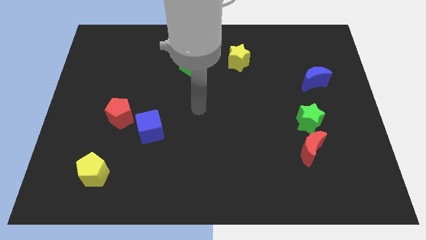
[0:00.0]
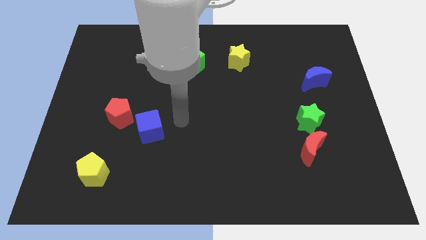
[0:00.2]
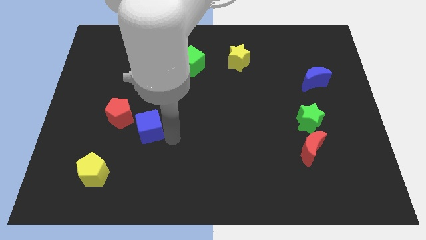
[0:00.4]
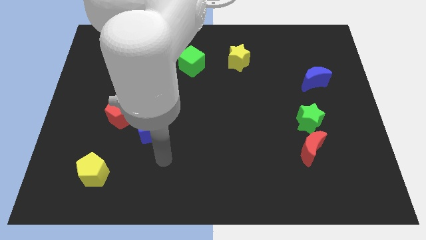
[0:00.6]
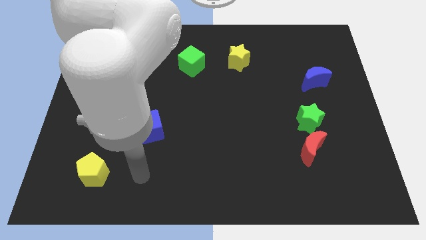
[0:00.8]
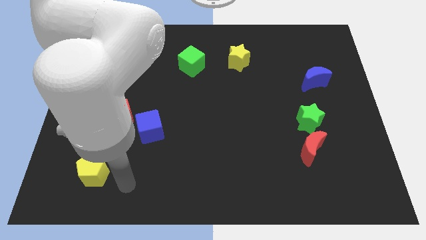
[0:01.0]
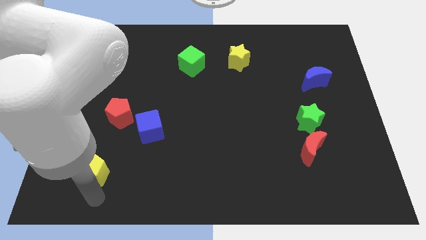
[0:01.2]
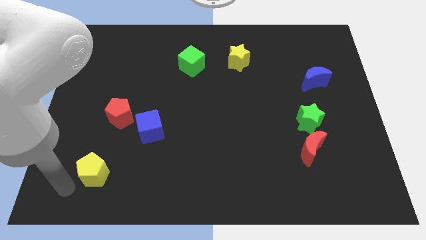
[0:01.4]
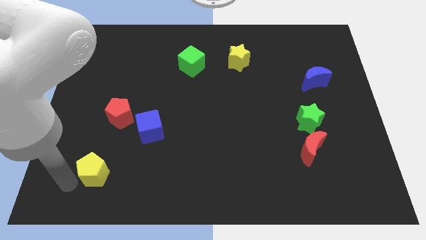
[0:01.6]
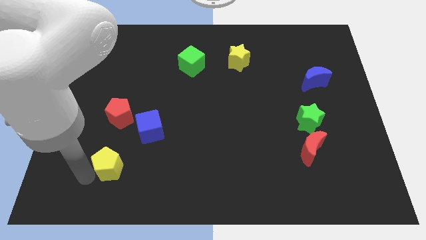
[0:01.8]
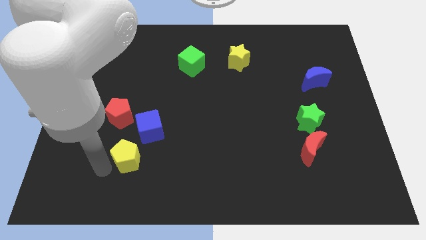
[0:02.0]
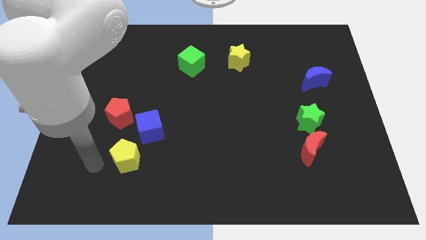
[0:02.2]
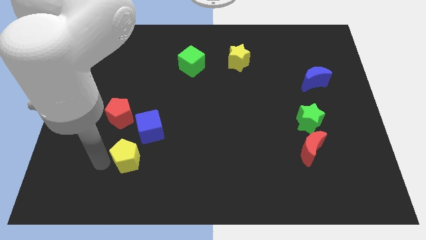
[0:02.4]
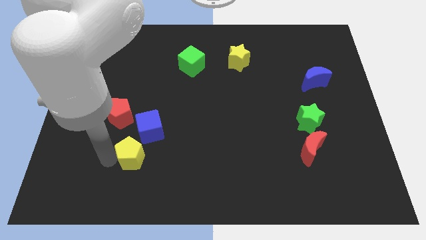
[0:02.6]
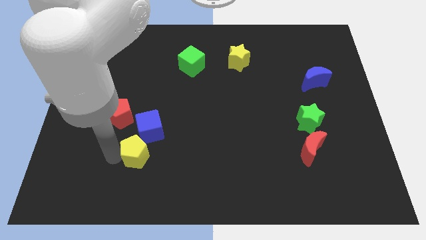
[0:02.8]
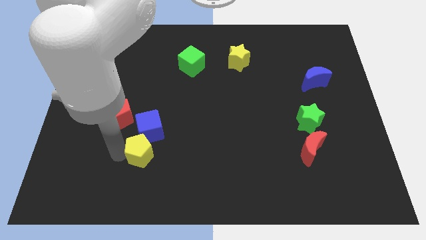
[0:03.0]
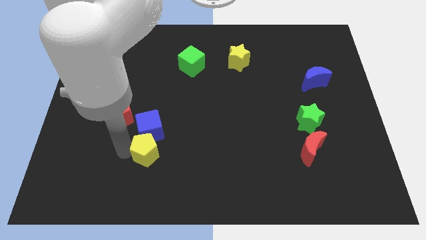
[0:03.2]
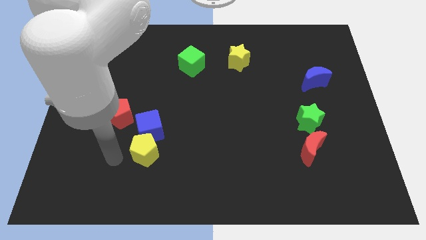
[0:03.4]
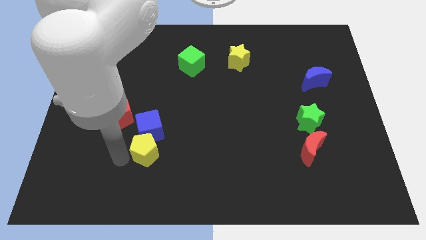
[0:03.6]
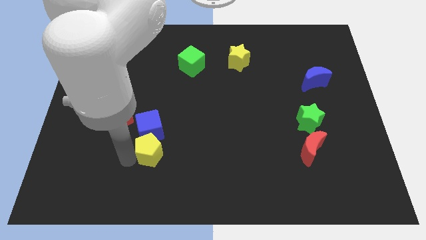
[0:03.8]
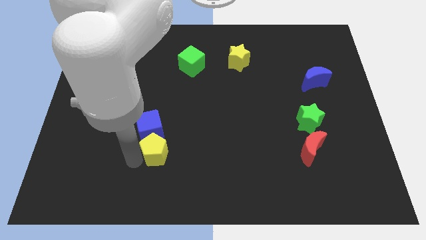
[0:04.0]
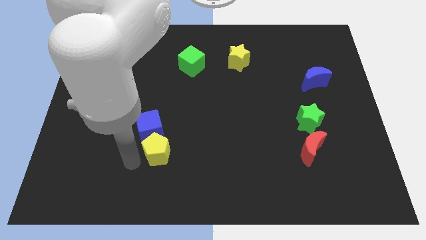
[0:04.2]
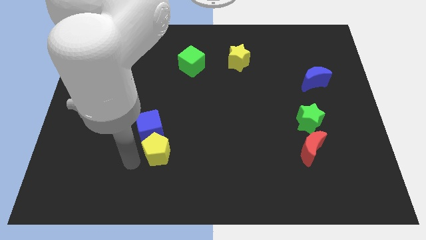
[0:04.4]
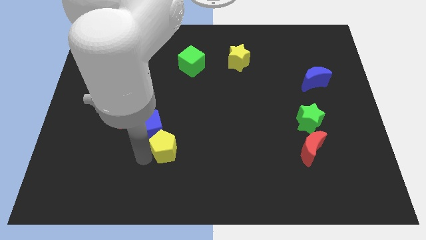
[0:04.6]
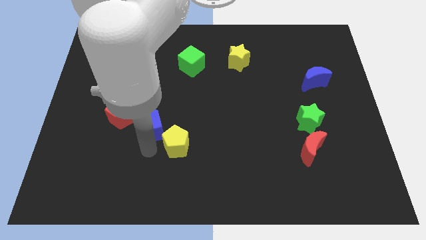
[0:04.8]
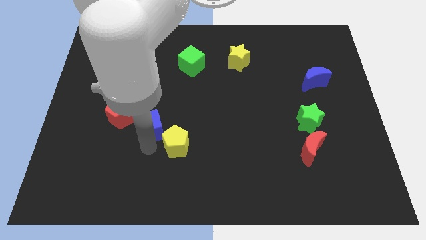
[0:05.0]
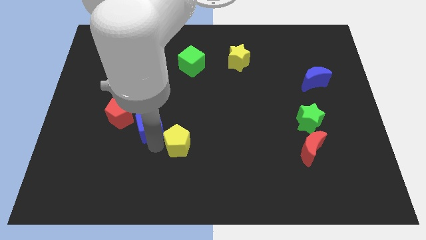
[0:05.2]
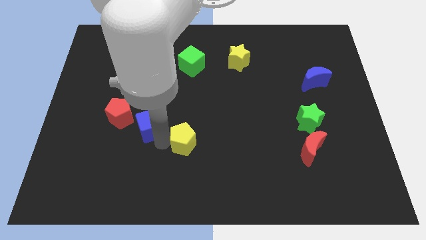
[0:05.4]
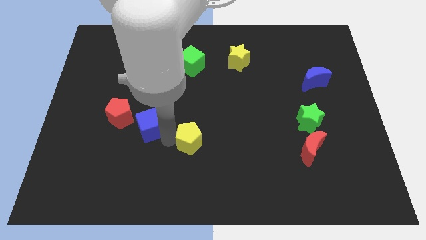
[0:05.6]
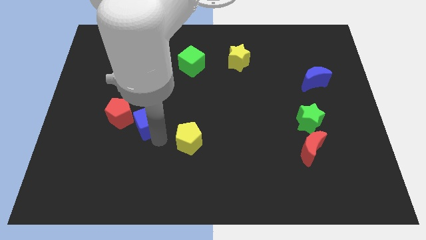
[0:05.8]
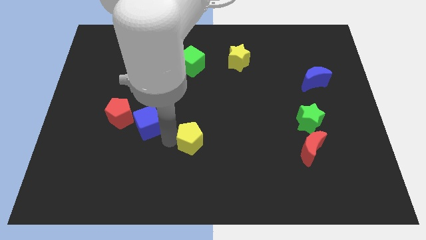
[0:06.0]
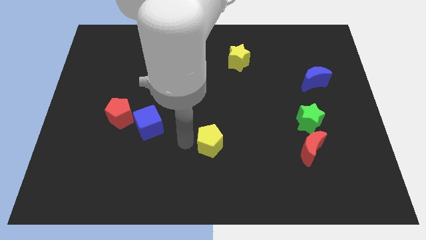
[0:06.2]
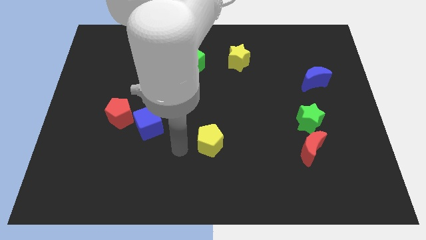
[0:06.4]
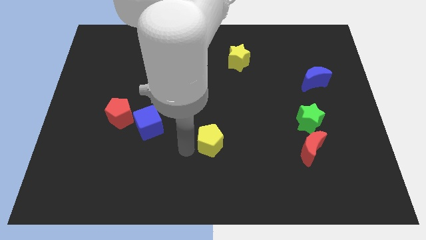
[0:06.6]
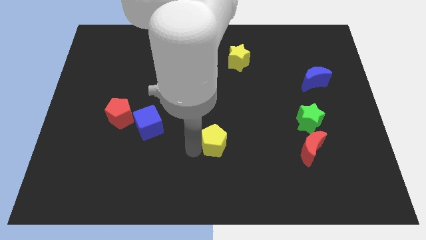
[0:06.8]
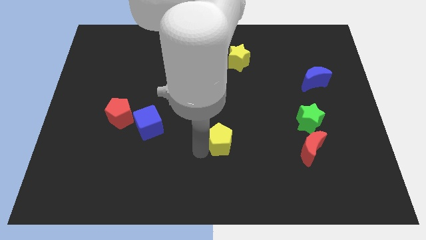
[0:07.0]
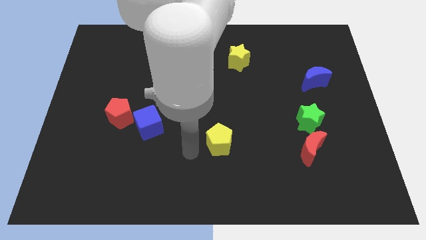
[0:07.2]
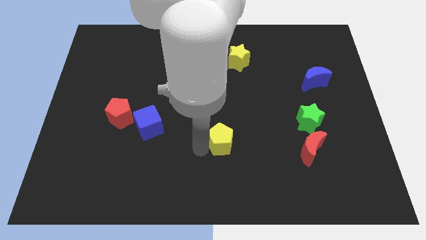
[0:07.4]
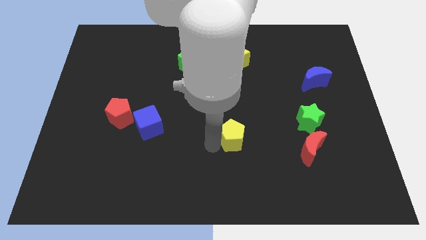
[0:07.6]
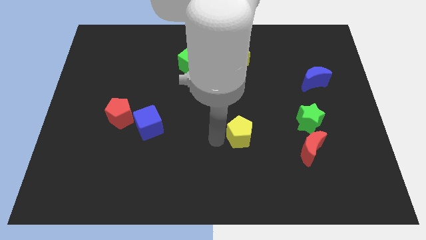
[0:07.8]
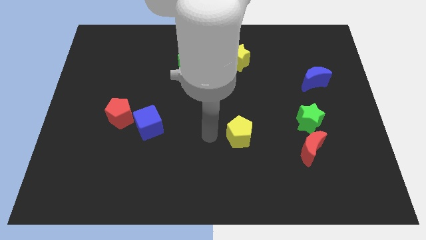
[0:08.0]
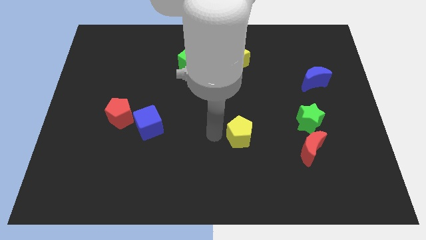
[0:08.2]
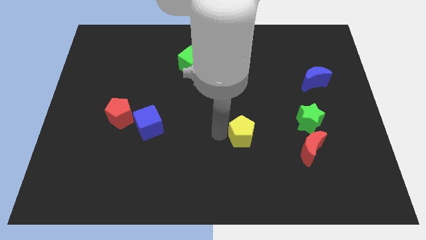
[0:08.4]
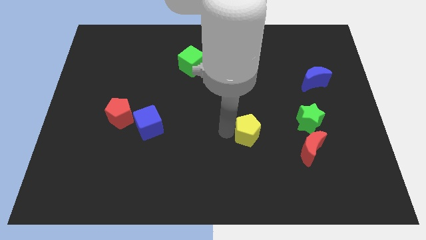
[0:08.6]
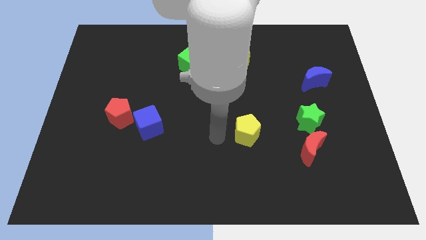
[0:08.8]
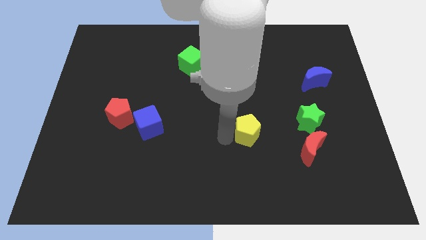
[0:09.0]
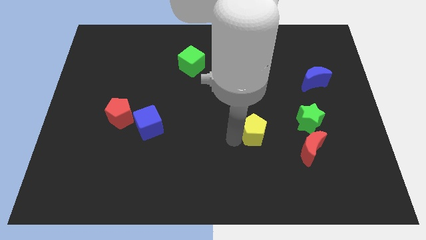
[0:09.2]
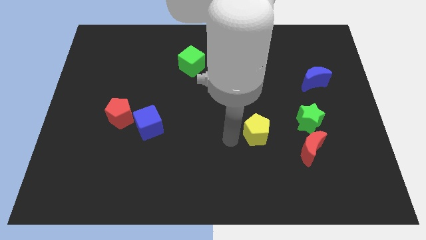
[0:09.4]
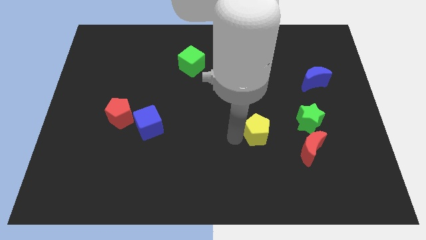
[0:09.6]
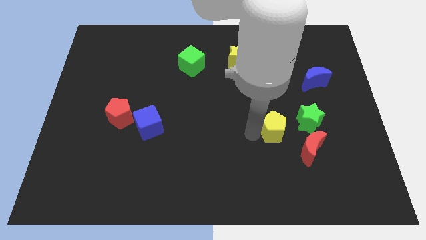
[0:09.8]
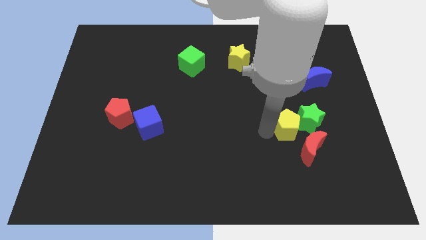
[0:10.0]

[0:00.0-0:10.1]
slide the yellow pentagon next to the green star

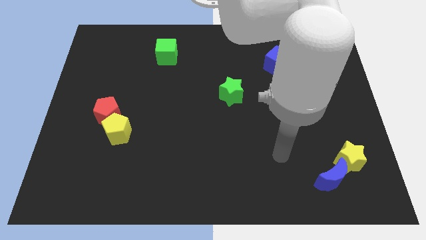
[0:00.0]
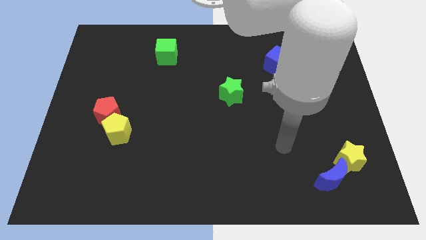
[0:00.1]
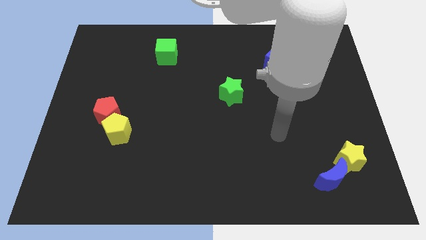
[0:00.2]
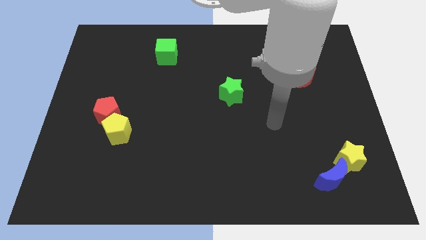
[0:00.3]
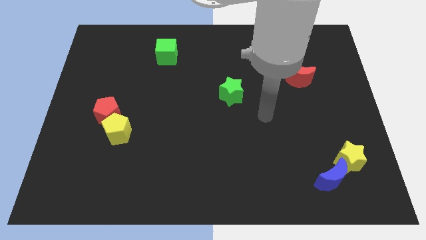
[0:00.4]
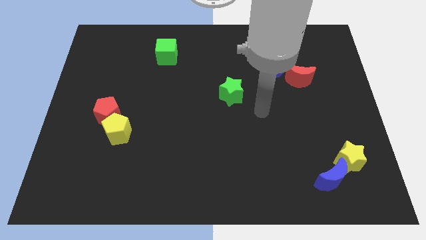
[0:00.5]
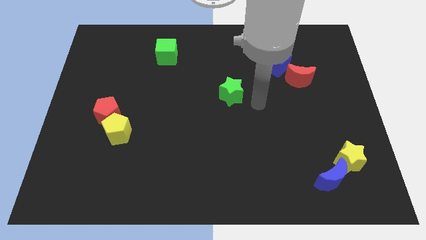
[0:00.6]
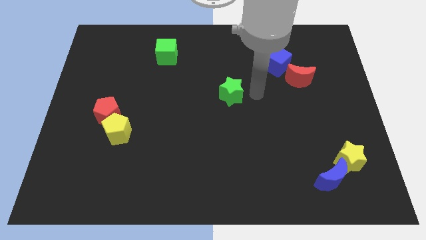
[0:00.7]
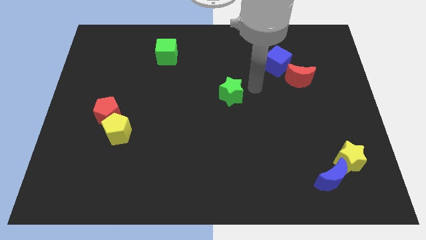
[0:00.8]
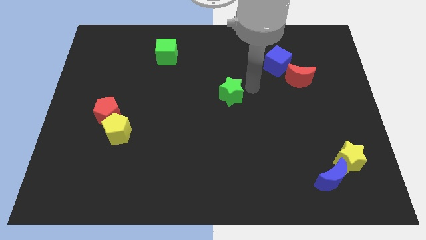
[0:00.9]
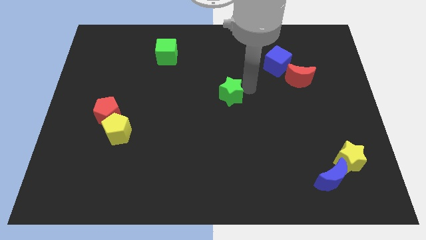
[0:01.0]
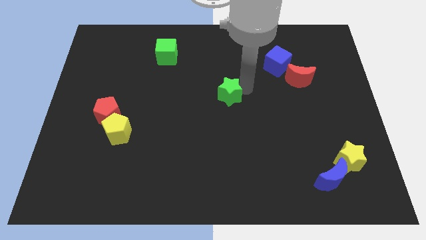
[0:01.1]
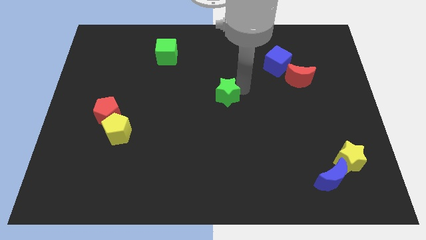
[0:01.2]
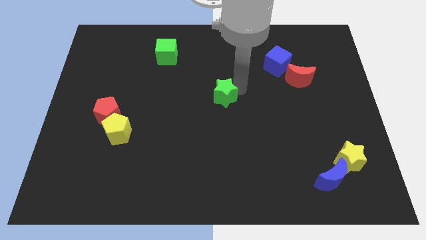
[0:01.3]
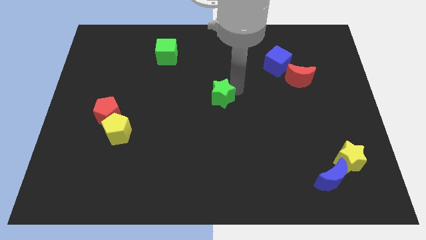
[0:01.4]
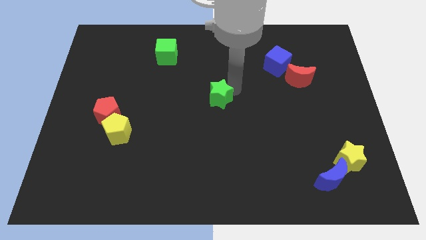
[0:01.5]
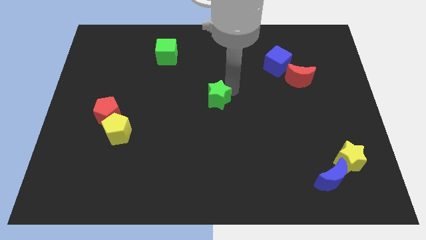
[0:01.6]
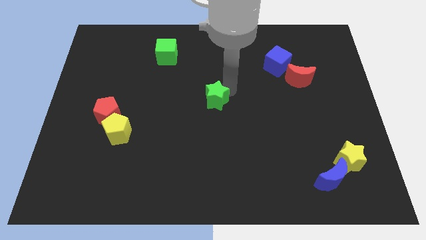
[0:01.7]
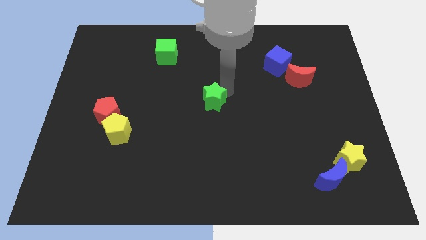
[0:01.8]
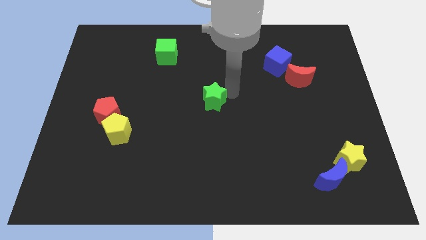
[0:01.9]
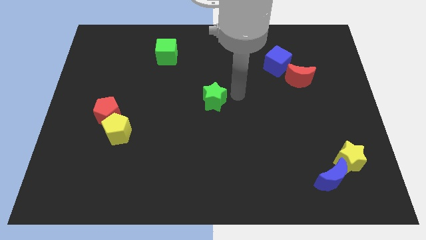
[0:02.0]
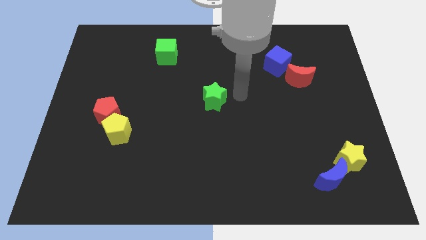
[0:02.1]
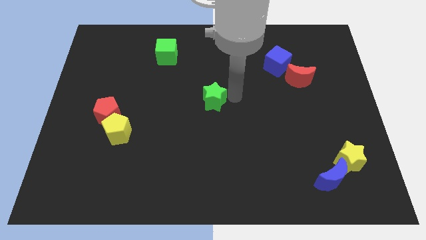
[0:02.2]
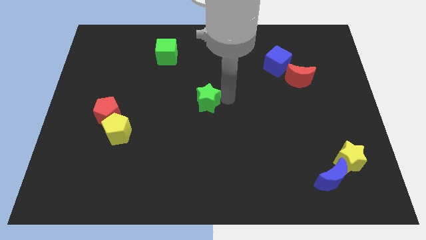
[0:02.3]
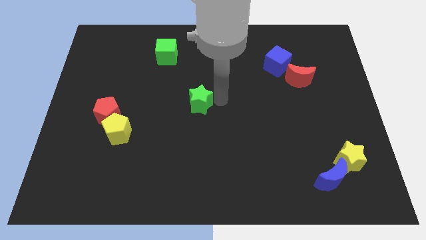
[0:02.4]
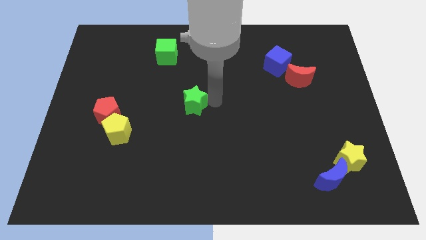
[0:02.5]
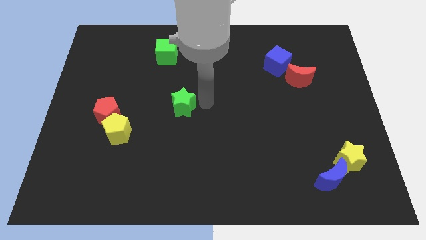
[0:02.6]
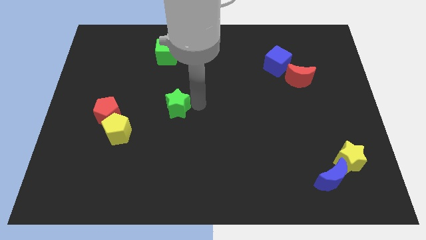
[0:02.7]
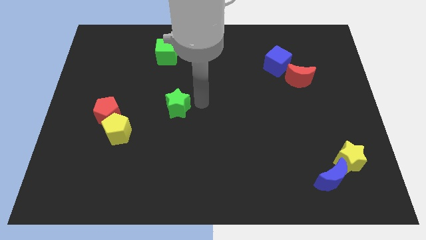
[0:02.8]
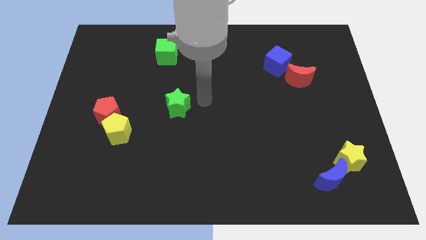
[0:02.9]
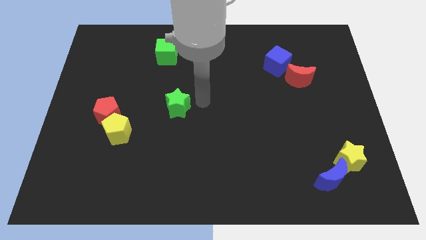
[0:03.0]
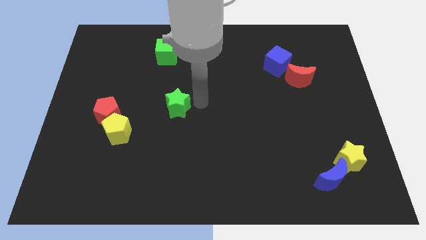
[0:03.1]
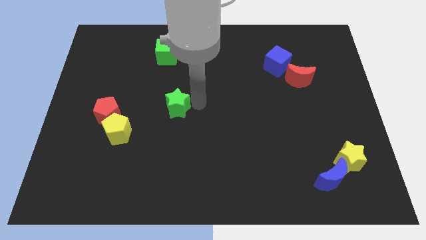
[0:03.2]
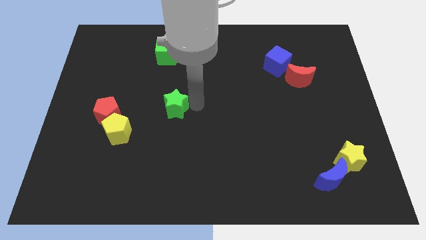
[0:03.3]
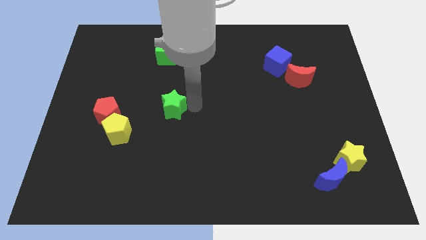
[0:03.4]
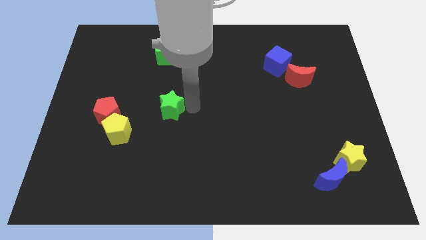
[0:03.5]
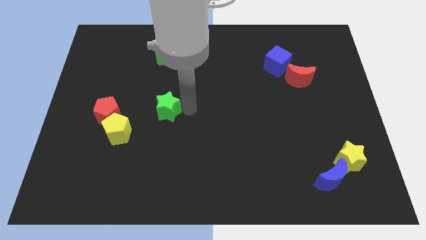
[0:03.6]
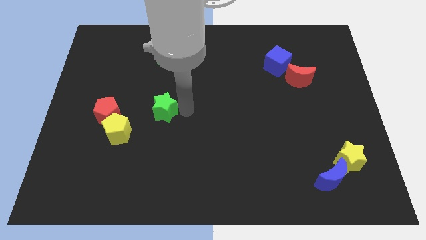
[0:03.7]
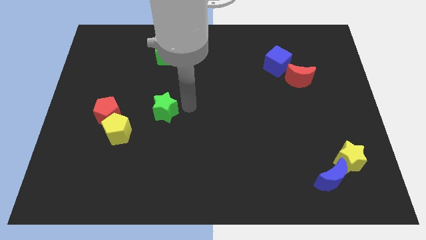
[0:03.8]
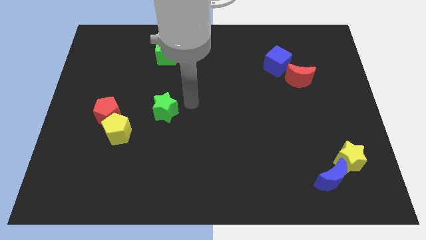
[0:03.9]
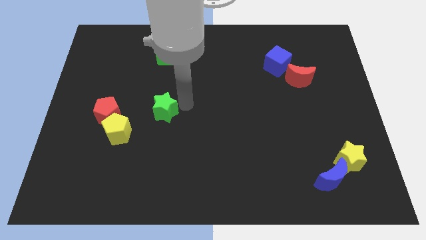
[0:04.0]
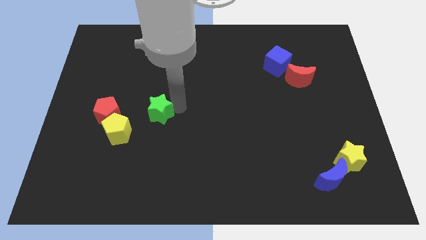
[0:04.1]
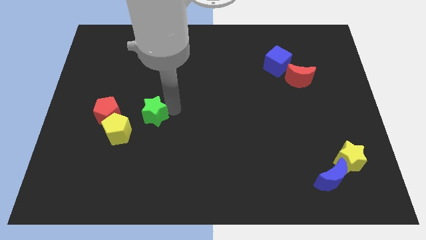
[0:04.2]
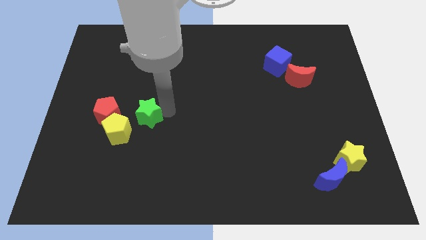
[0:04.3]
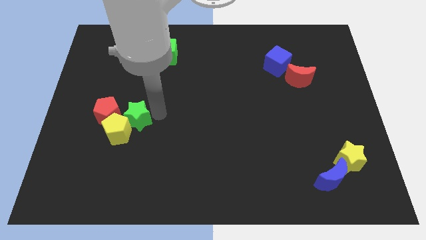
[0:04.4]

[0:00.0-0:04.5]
move the green star next to the yellow pentagon
